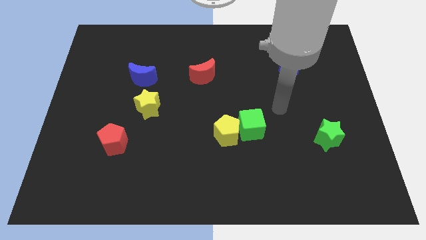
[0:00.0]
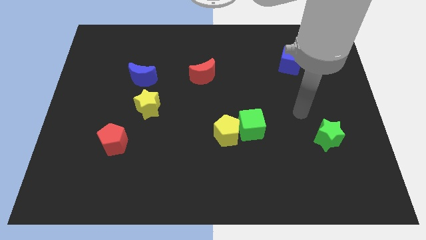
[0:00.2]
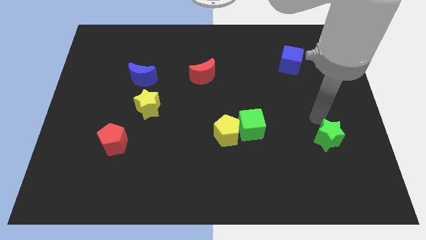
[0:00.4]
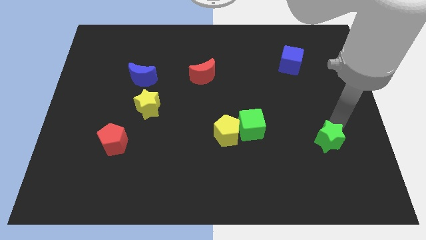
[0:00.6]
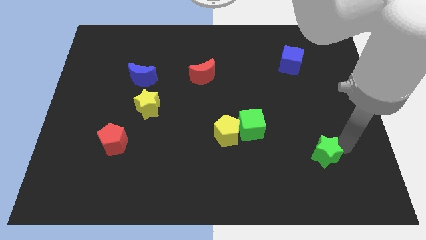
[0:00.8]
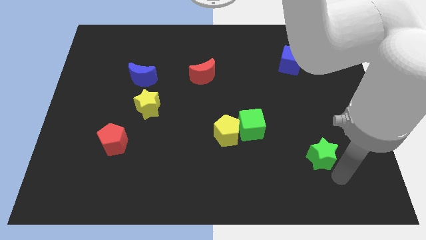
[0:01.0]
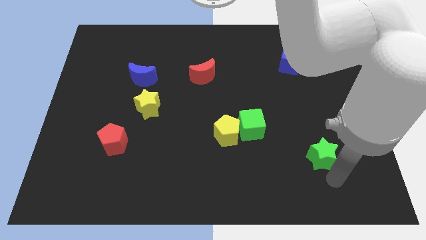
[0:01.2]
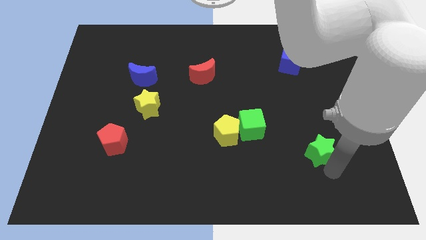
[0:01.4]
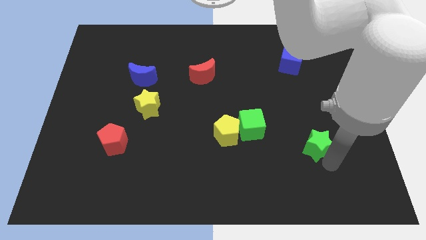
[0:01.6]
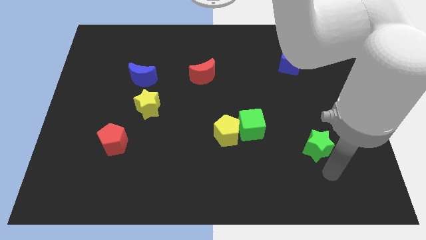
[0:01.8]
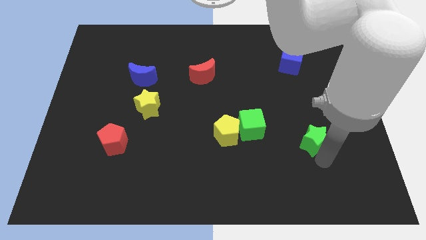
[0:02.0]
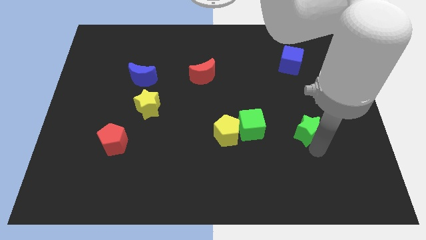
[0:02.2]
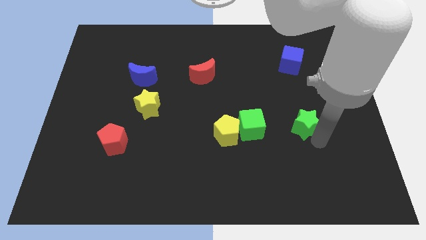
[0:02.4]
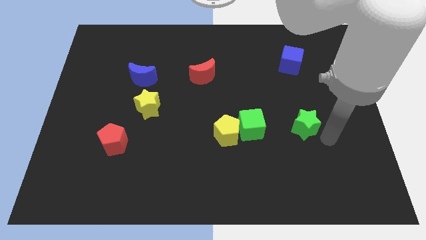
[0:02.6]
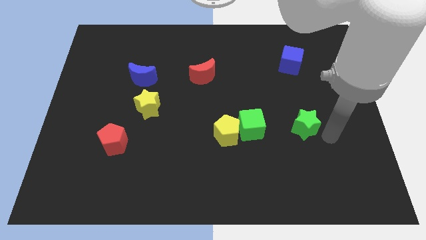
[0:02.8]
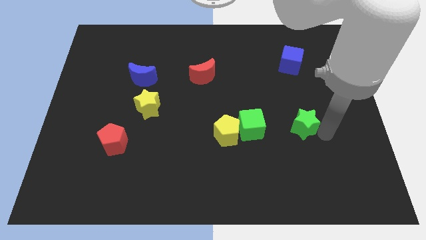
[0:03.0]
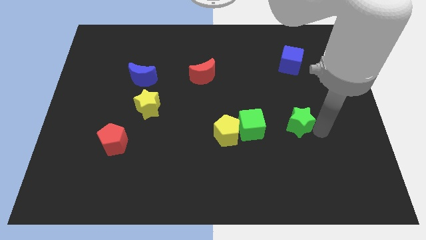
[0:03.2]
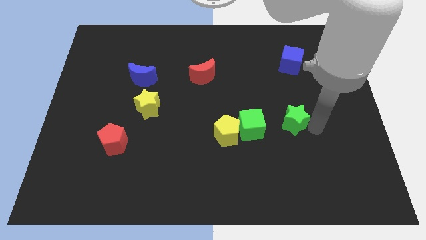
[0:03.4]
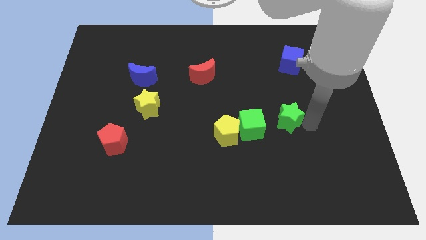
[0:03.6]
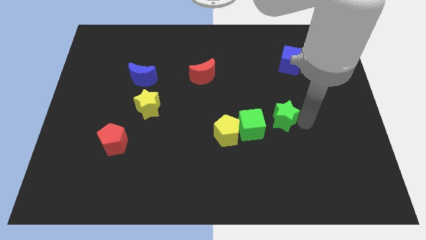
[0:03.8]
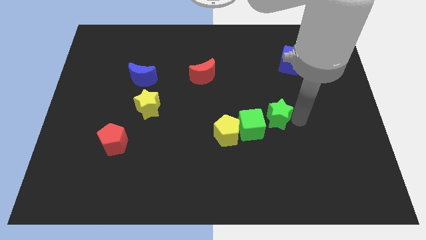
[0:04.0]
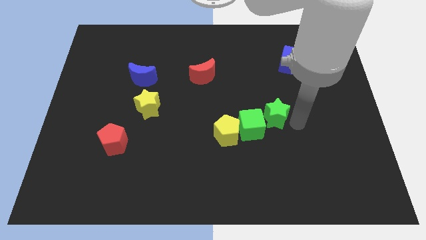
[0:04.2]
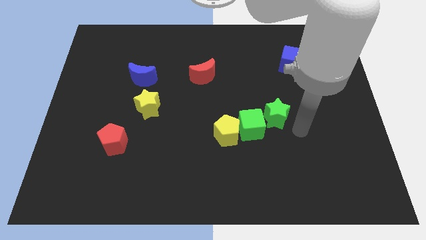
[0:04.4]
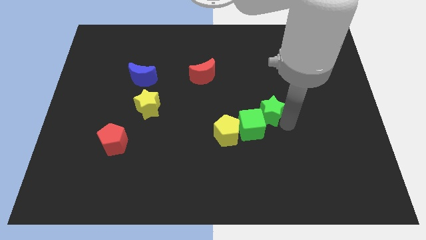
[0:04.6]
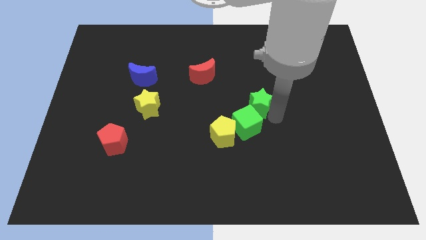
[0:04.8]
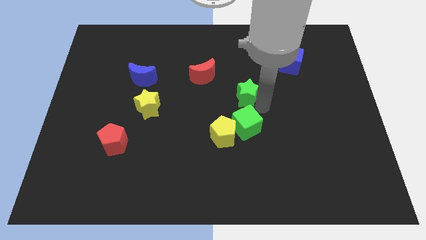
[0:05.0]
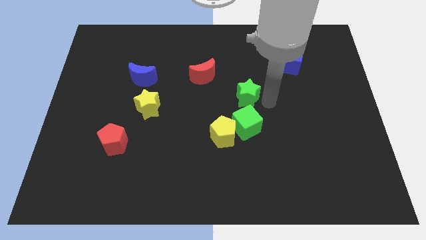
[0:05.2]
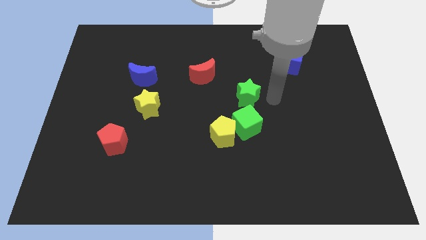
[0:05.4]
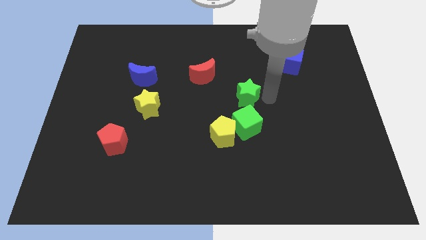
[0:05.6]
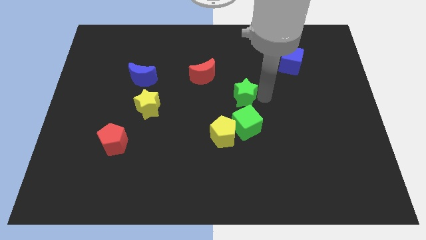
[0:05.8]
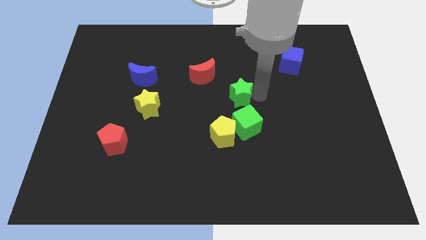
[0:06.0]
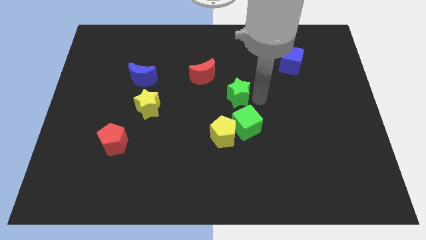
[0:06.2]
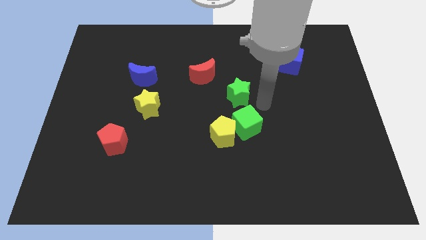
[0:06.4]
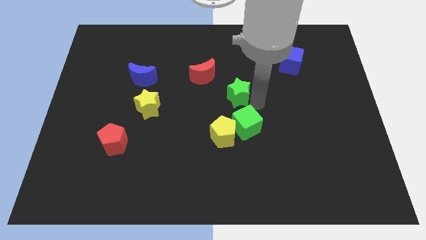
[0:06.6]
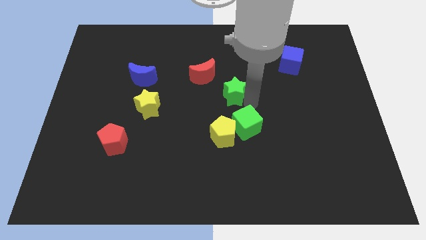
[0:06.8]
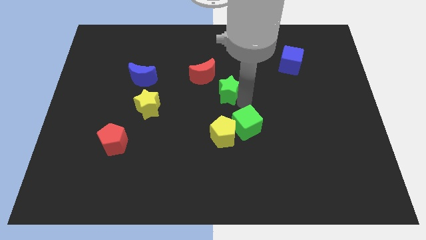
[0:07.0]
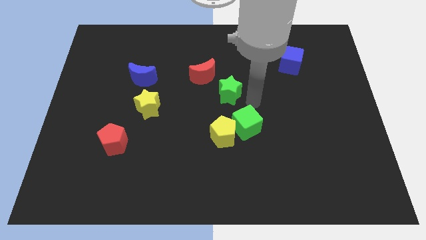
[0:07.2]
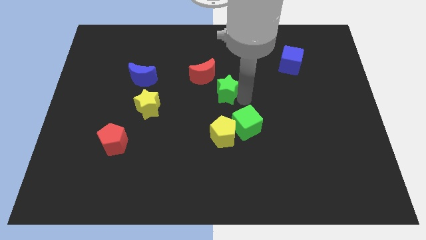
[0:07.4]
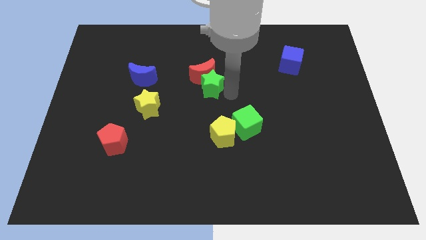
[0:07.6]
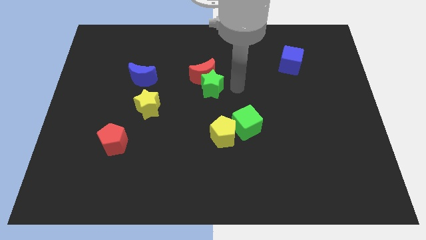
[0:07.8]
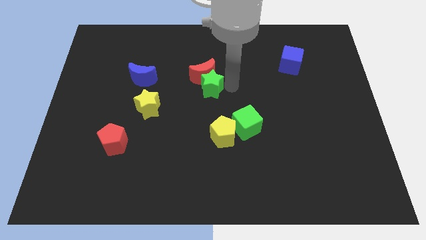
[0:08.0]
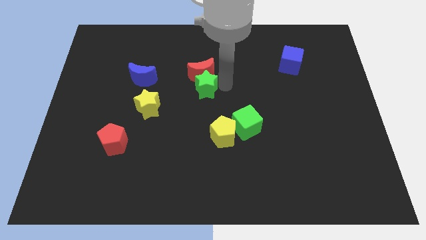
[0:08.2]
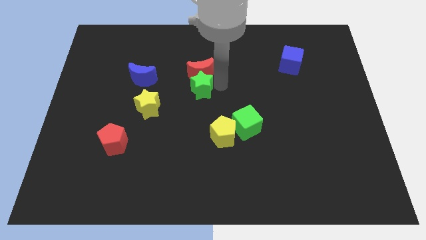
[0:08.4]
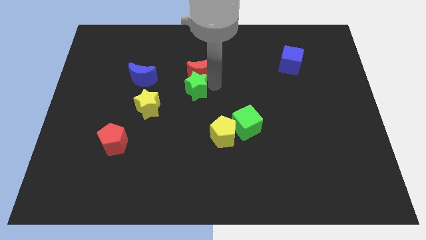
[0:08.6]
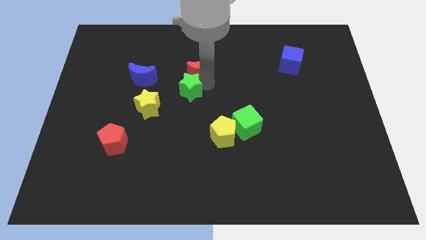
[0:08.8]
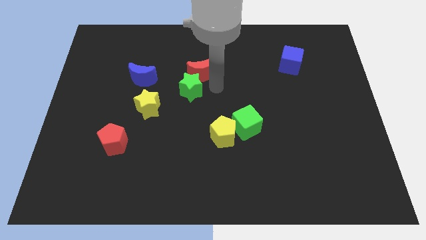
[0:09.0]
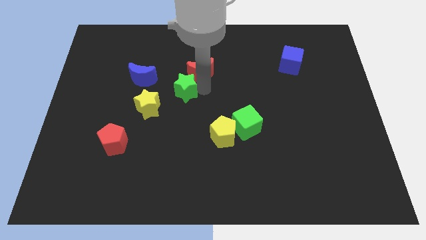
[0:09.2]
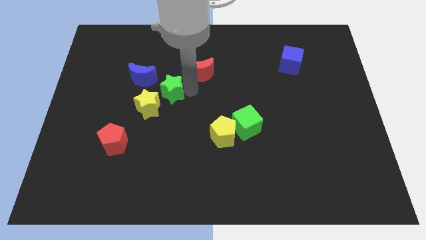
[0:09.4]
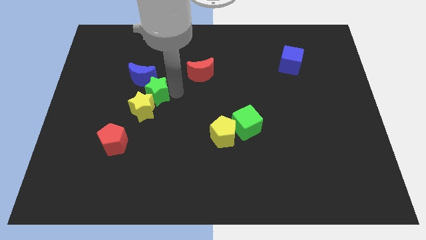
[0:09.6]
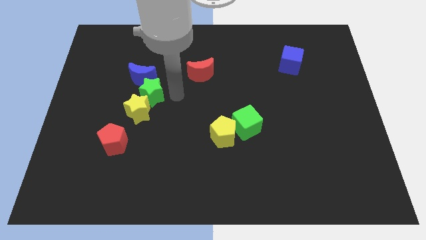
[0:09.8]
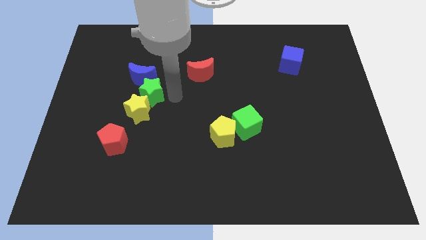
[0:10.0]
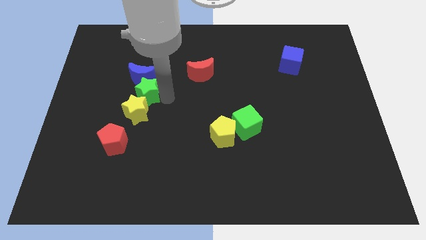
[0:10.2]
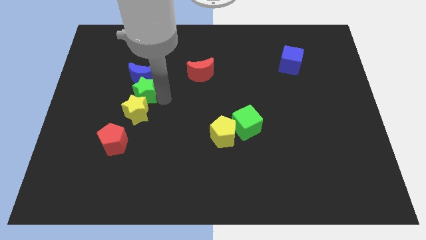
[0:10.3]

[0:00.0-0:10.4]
slide the green star diagonally down and to the left of the blue moon

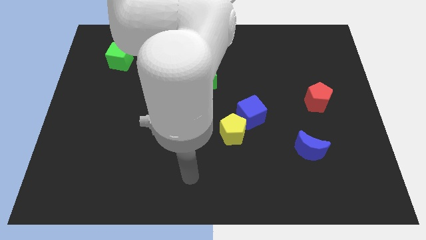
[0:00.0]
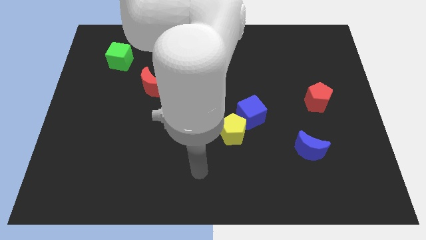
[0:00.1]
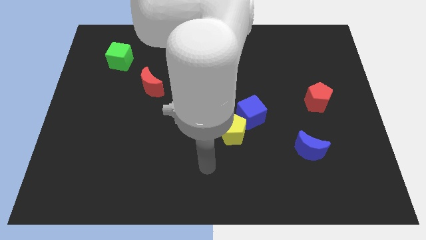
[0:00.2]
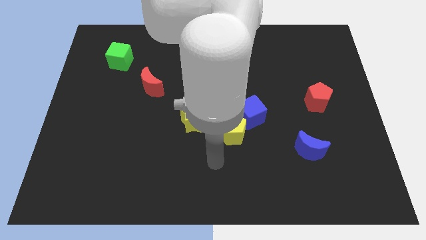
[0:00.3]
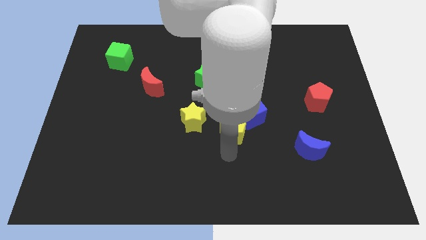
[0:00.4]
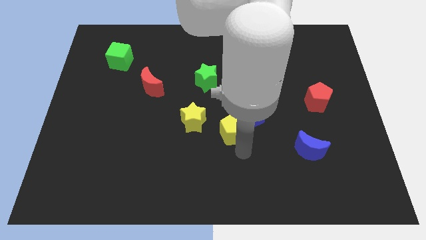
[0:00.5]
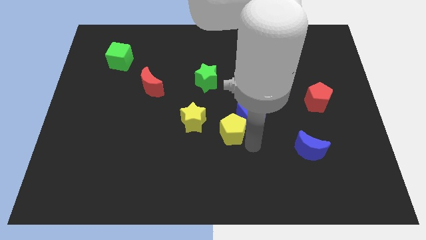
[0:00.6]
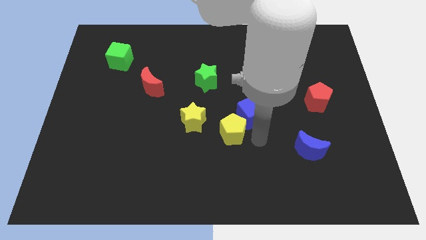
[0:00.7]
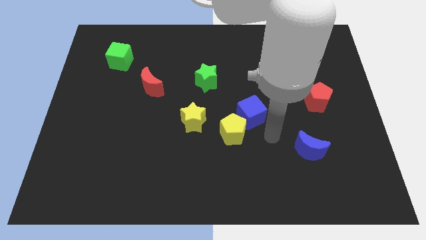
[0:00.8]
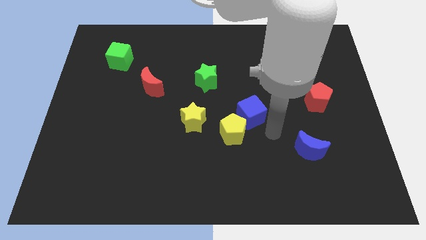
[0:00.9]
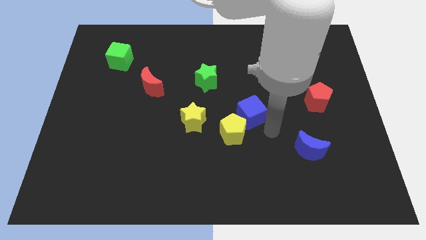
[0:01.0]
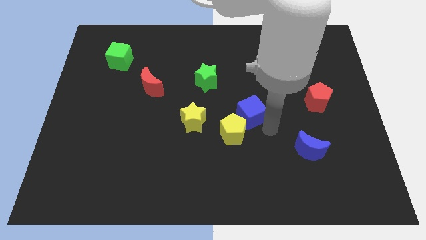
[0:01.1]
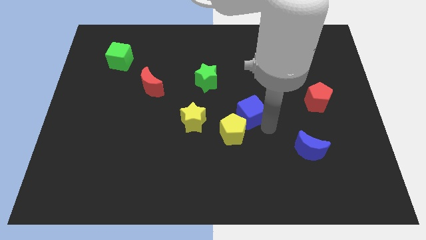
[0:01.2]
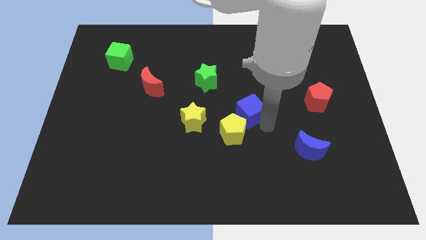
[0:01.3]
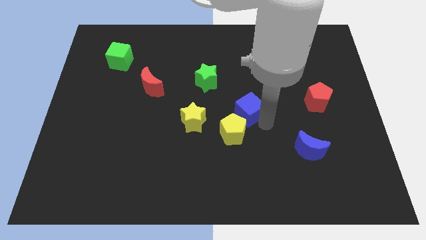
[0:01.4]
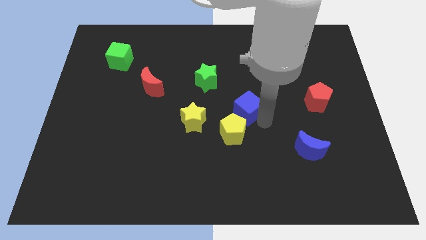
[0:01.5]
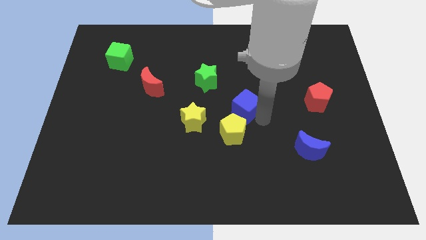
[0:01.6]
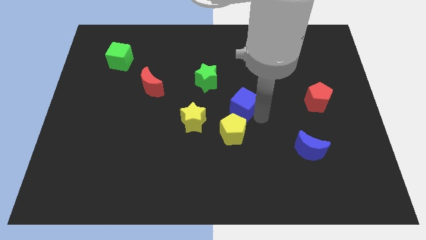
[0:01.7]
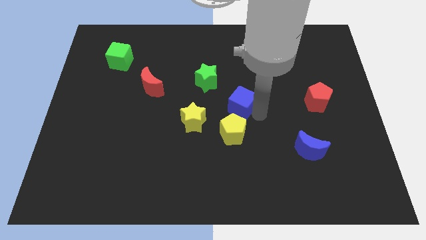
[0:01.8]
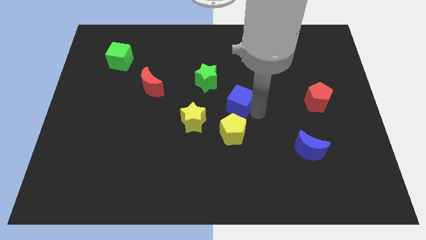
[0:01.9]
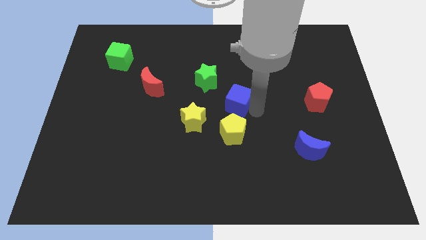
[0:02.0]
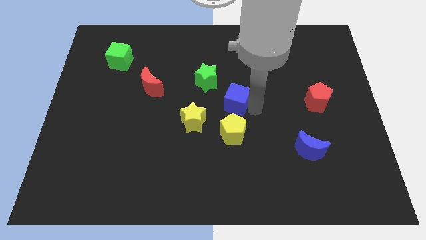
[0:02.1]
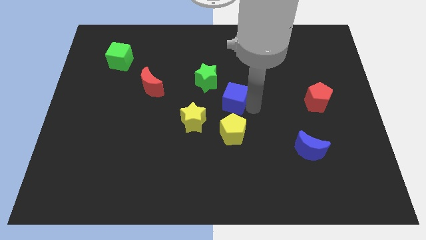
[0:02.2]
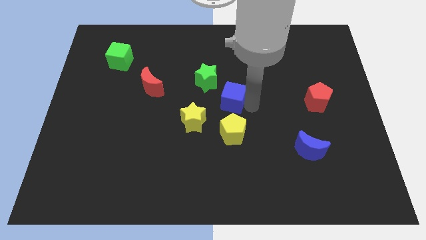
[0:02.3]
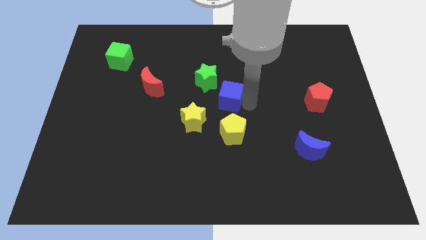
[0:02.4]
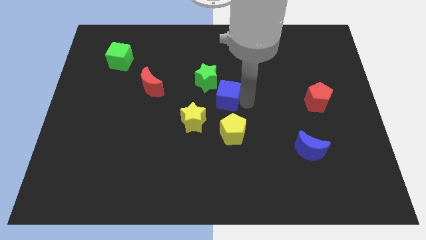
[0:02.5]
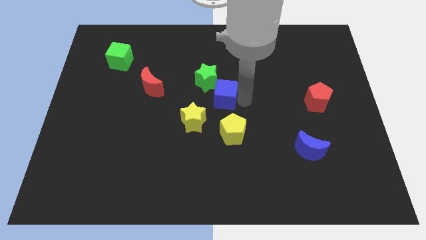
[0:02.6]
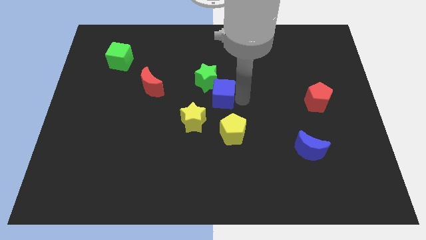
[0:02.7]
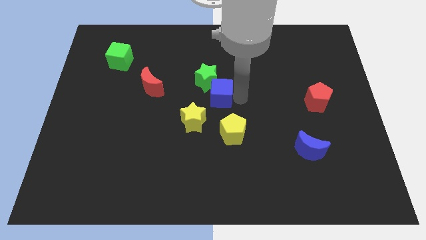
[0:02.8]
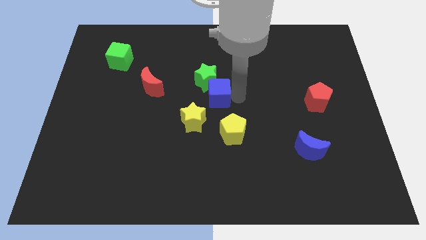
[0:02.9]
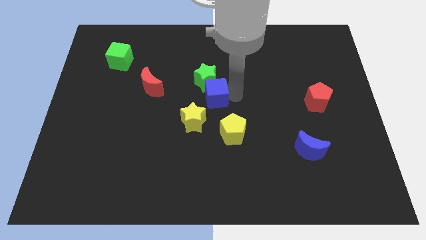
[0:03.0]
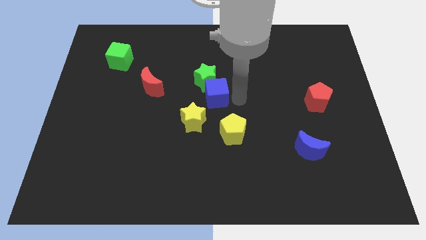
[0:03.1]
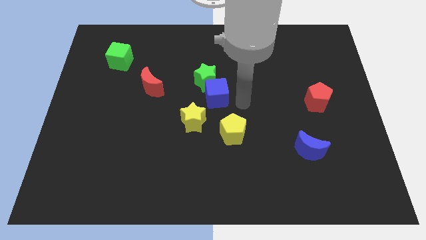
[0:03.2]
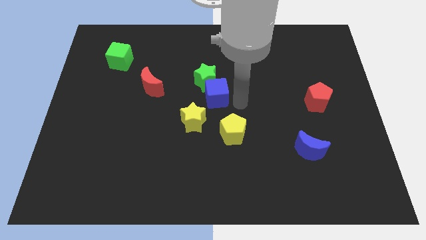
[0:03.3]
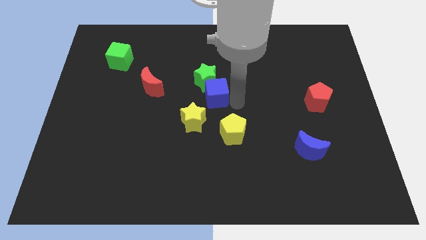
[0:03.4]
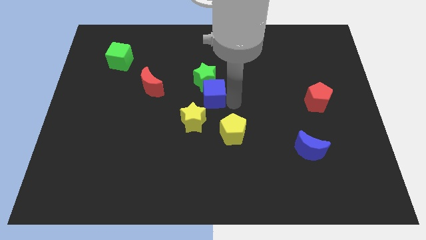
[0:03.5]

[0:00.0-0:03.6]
move the blue cube to the top side of the yellow star
